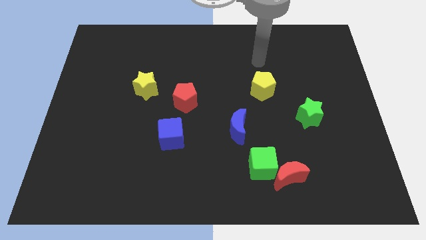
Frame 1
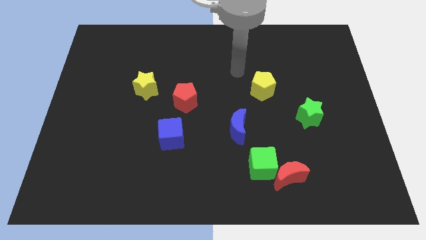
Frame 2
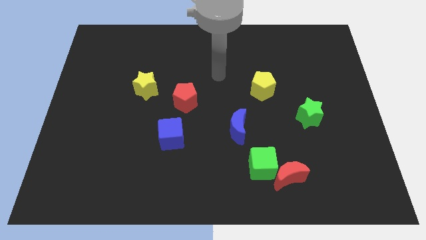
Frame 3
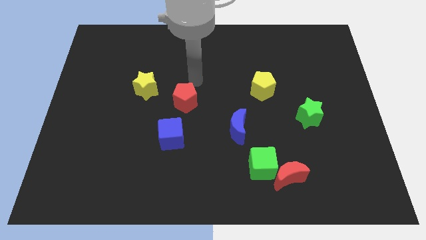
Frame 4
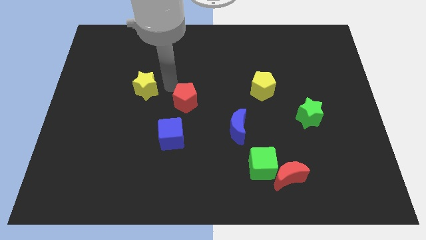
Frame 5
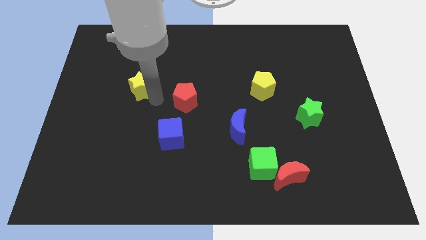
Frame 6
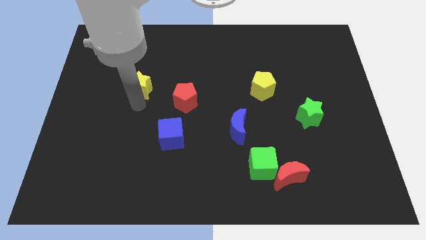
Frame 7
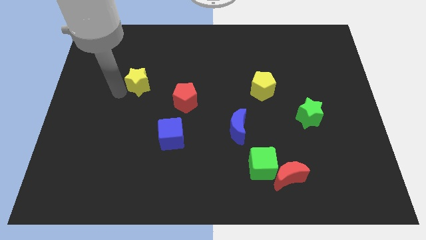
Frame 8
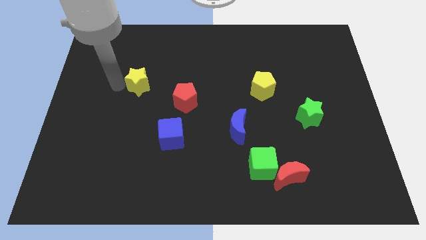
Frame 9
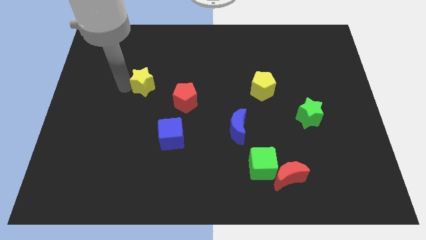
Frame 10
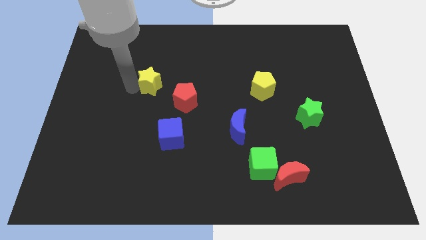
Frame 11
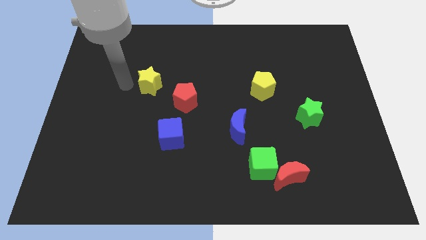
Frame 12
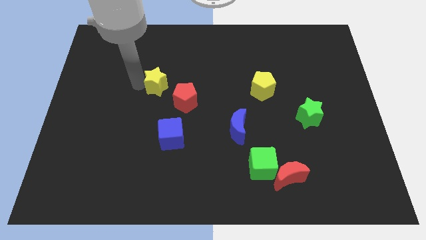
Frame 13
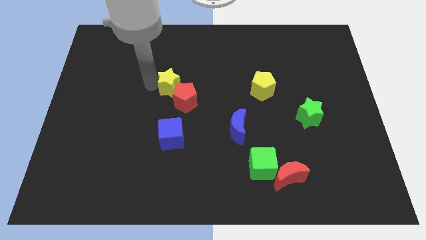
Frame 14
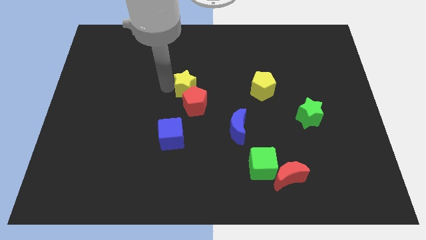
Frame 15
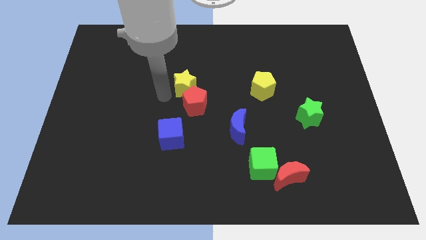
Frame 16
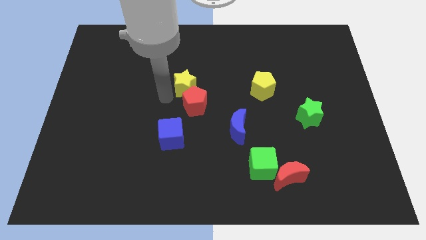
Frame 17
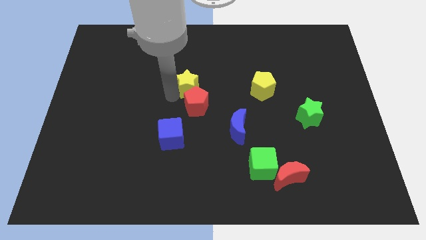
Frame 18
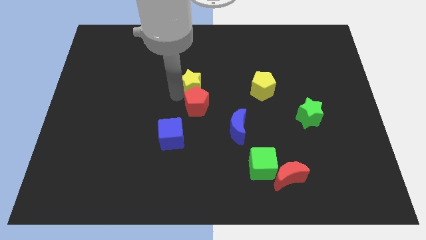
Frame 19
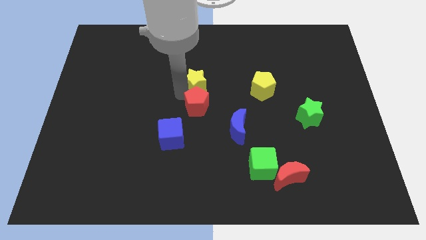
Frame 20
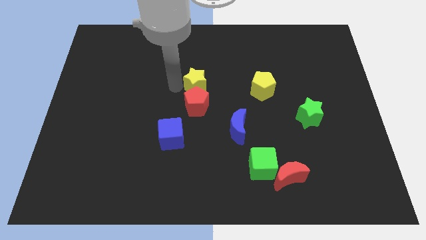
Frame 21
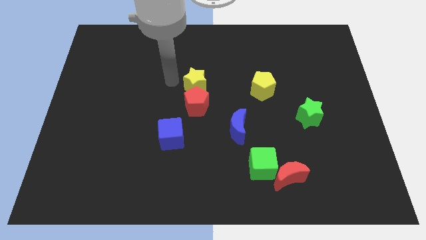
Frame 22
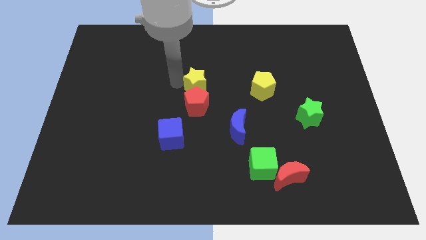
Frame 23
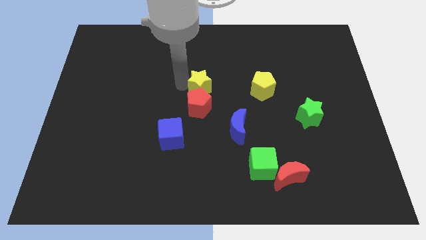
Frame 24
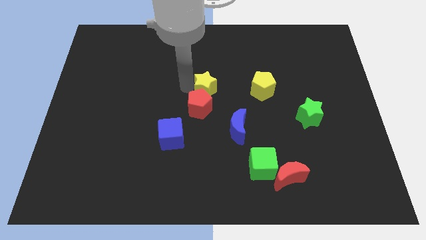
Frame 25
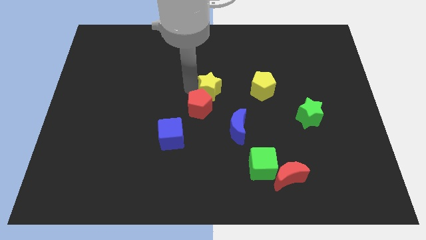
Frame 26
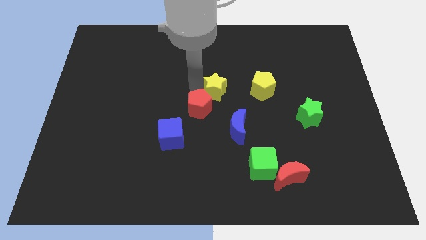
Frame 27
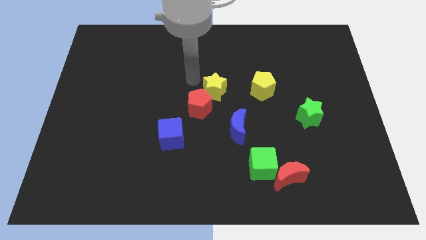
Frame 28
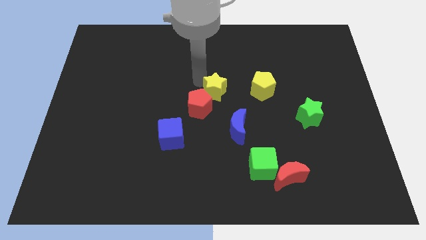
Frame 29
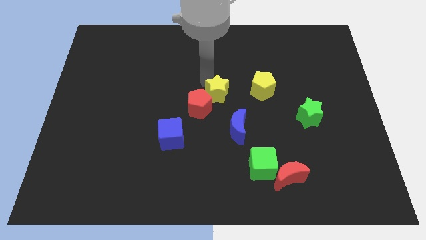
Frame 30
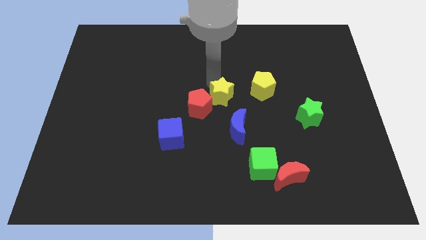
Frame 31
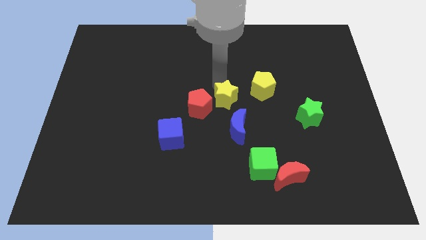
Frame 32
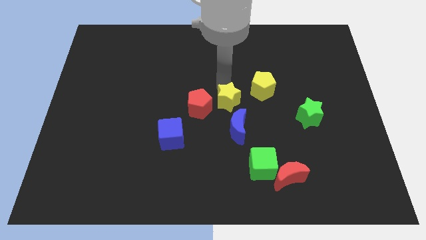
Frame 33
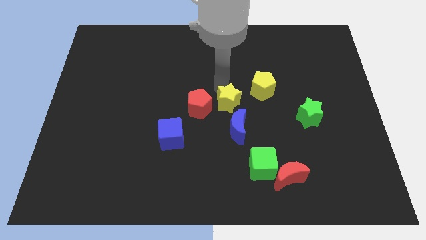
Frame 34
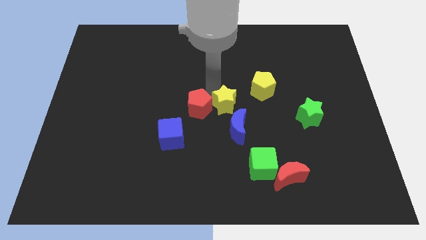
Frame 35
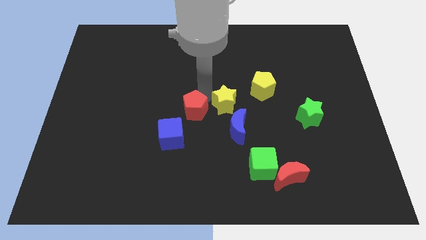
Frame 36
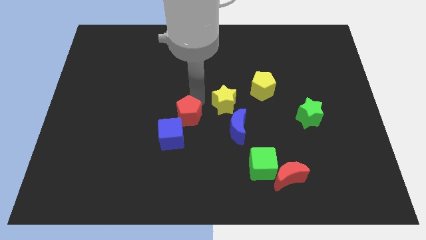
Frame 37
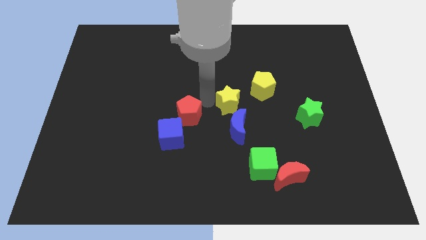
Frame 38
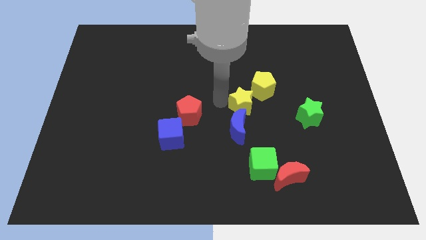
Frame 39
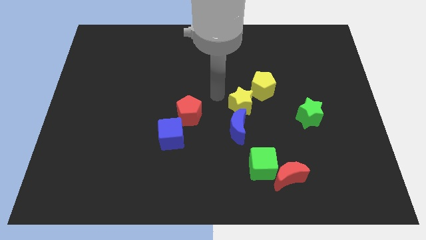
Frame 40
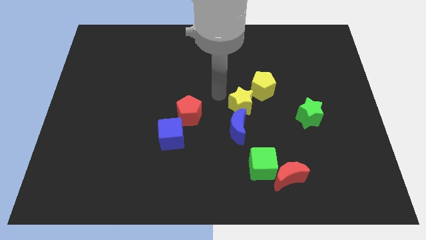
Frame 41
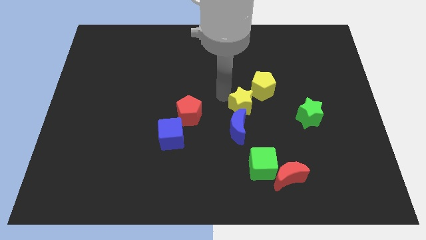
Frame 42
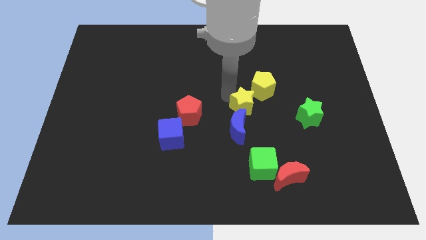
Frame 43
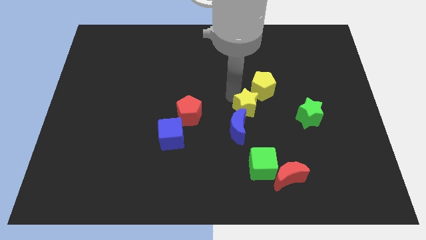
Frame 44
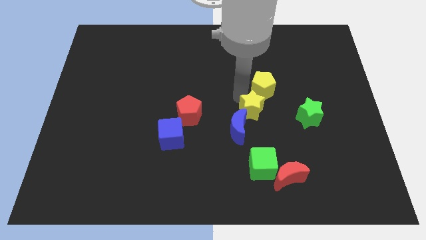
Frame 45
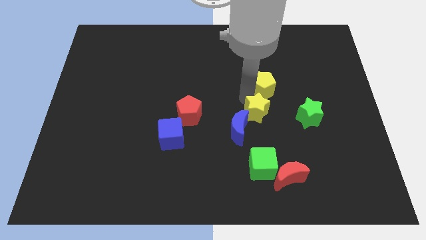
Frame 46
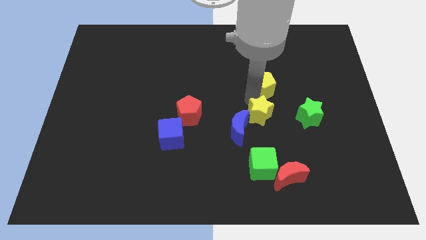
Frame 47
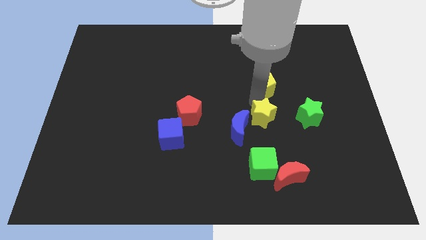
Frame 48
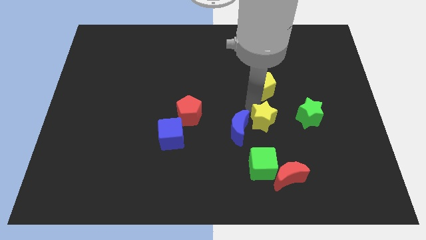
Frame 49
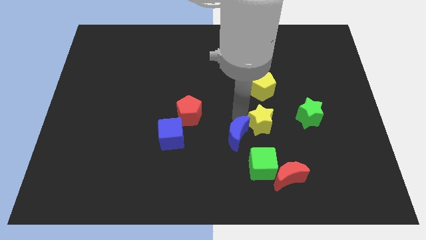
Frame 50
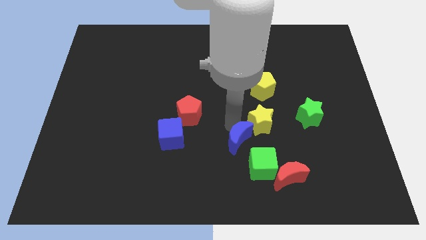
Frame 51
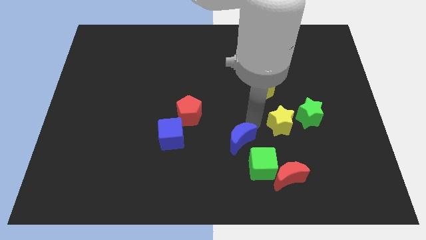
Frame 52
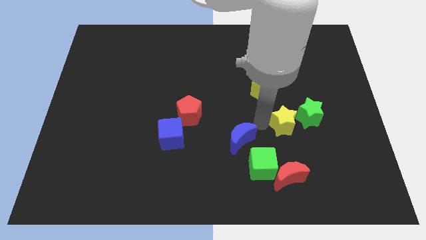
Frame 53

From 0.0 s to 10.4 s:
move the yellow star to the green star

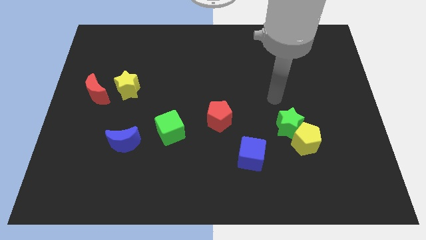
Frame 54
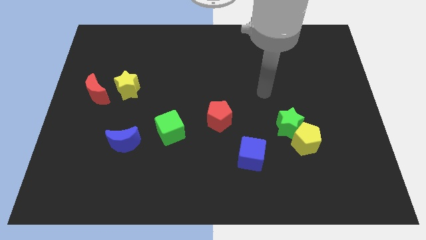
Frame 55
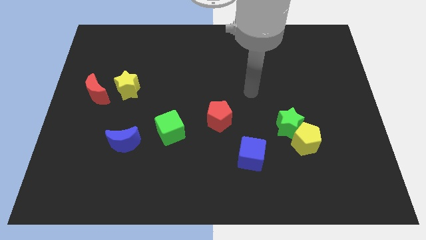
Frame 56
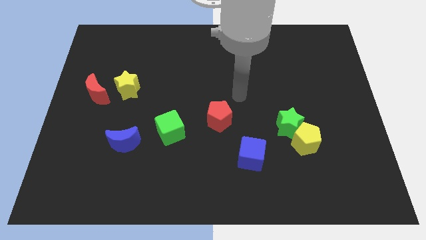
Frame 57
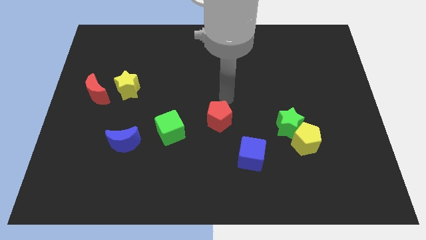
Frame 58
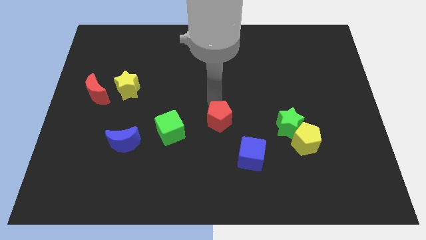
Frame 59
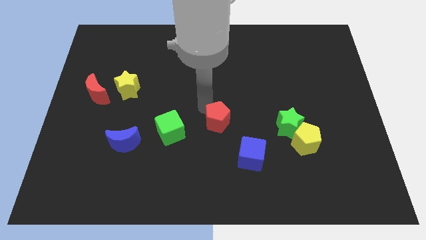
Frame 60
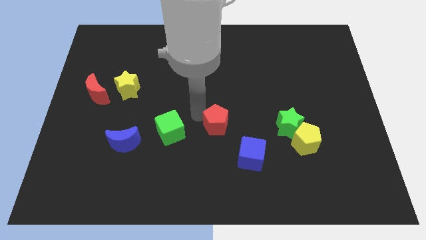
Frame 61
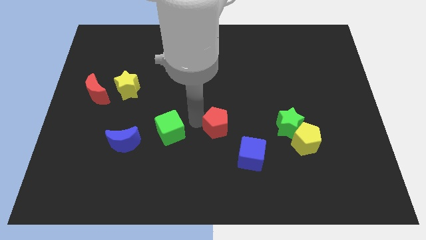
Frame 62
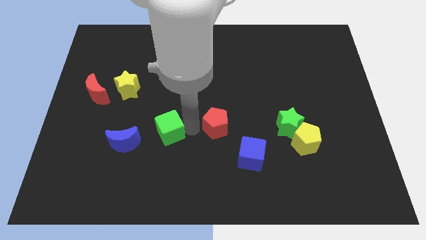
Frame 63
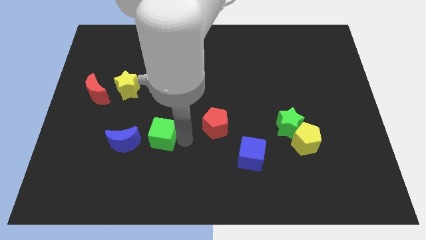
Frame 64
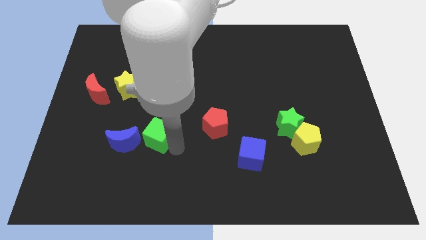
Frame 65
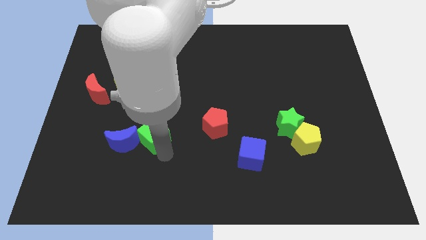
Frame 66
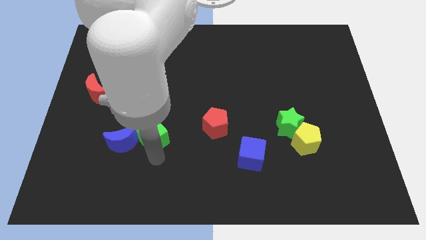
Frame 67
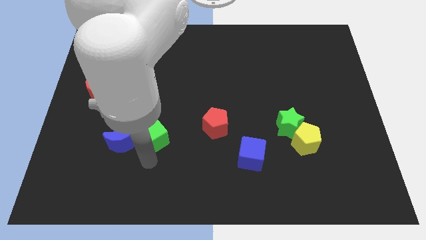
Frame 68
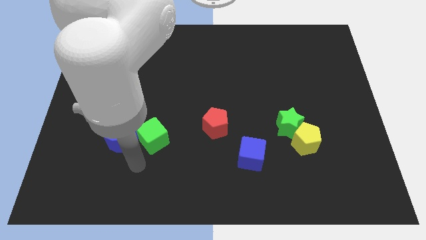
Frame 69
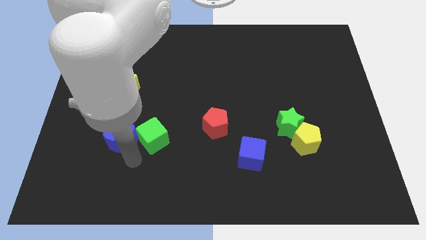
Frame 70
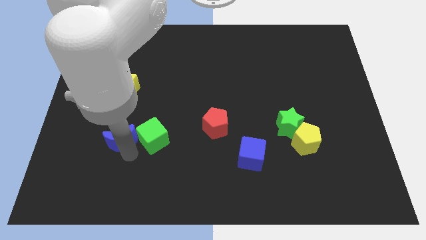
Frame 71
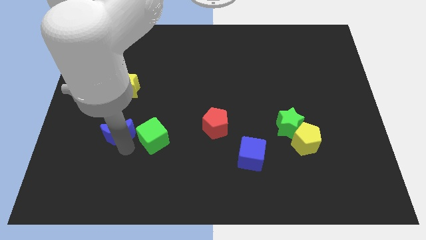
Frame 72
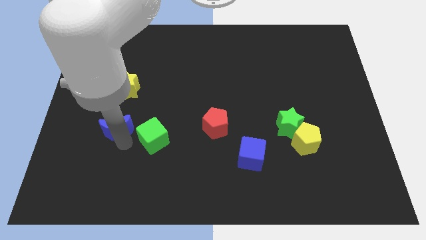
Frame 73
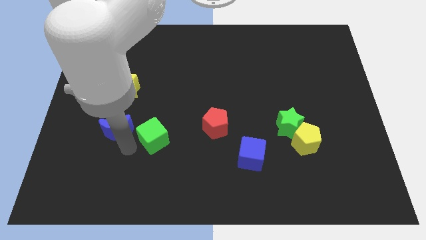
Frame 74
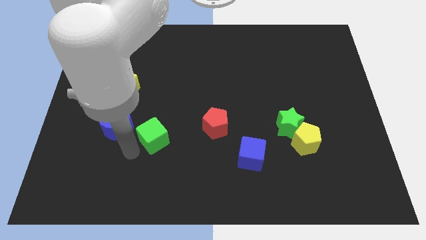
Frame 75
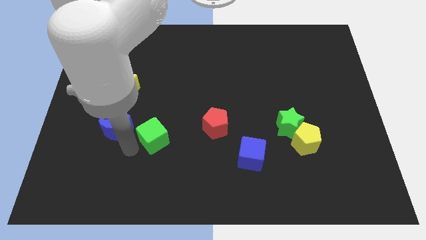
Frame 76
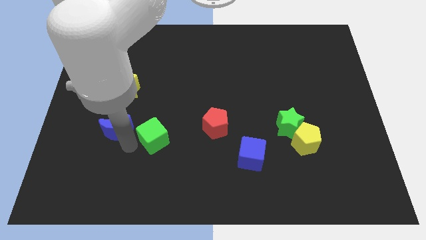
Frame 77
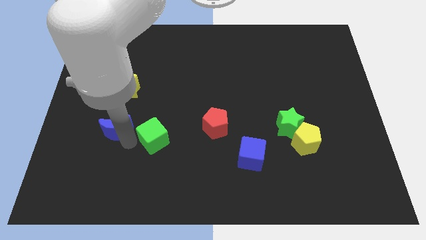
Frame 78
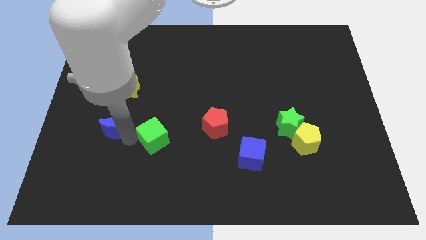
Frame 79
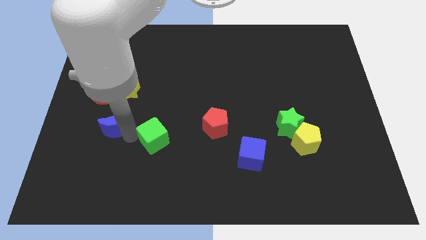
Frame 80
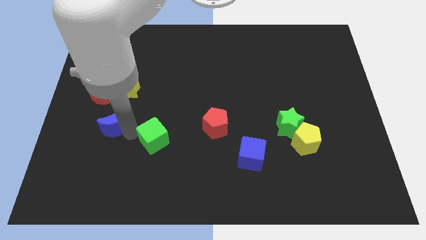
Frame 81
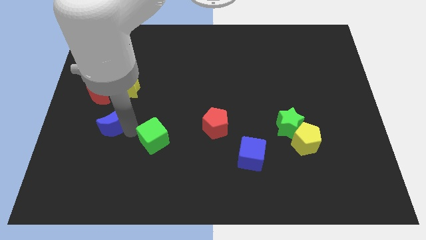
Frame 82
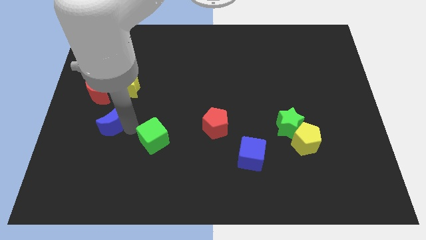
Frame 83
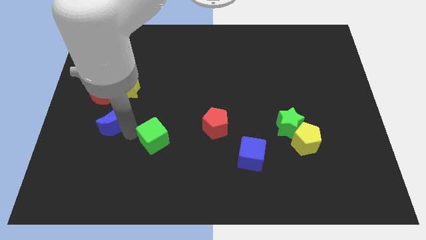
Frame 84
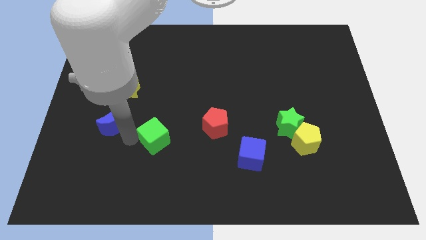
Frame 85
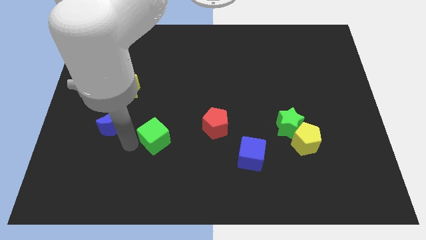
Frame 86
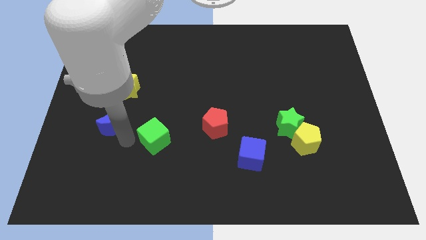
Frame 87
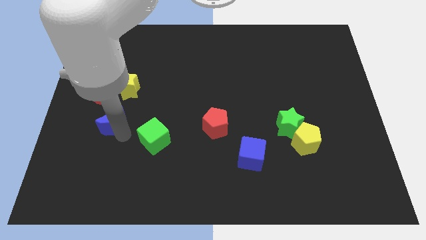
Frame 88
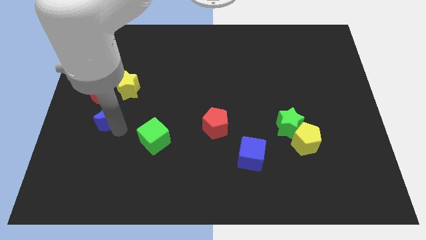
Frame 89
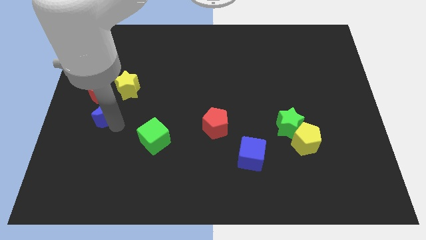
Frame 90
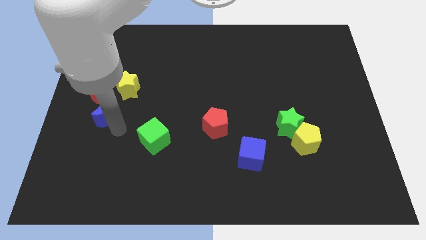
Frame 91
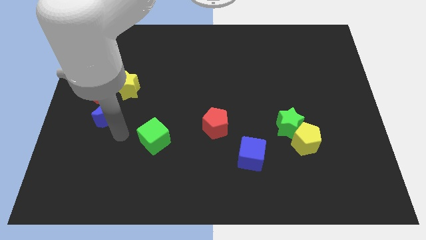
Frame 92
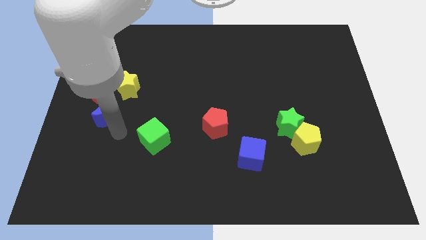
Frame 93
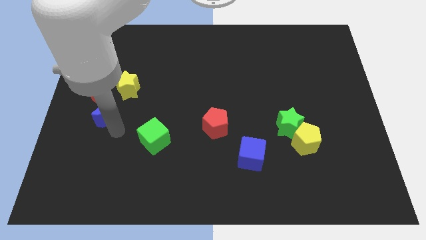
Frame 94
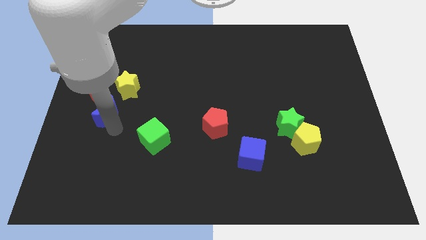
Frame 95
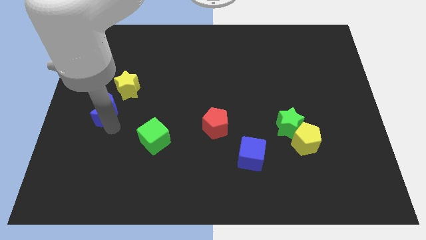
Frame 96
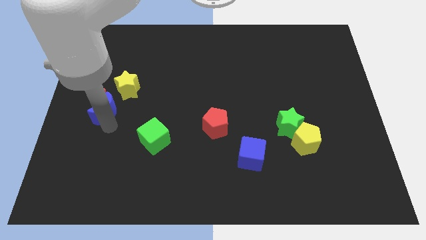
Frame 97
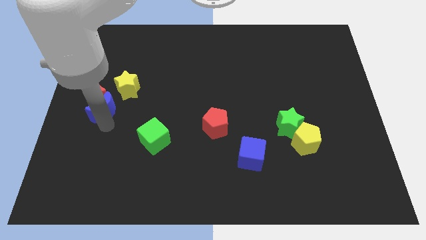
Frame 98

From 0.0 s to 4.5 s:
push the blue moon next to the red moon
